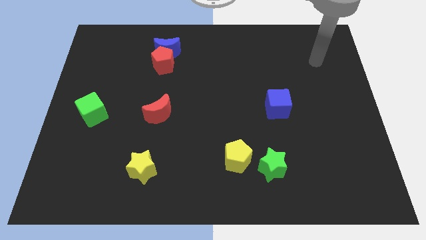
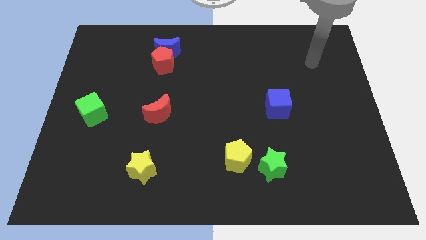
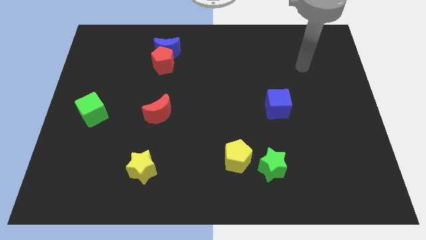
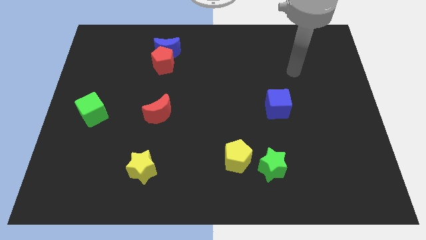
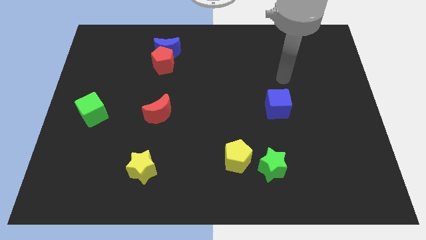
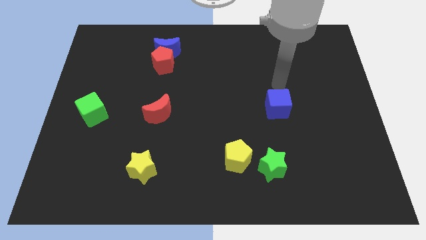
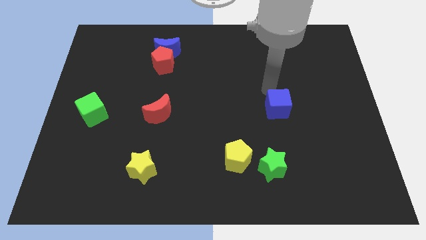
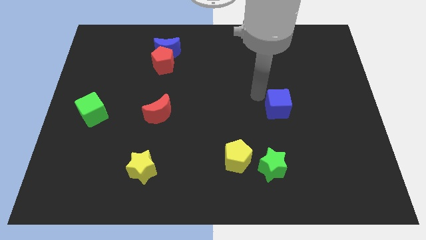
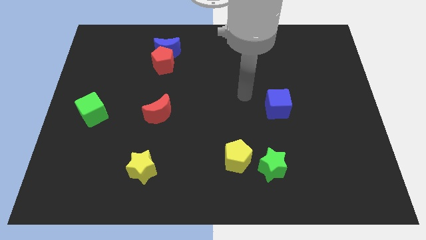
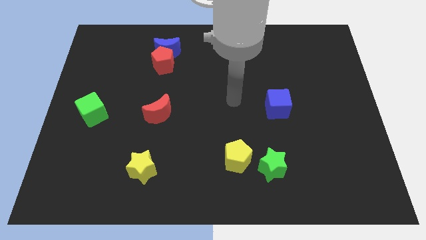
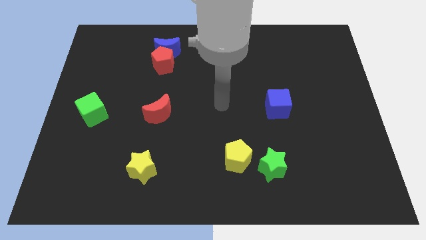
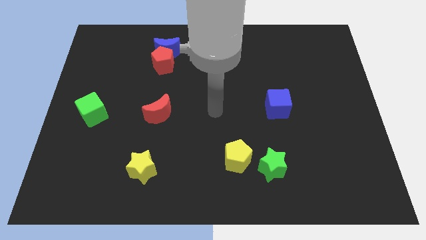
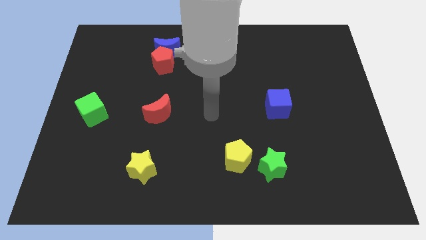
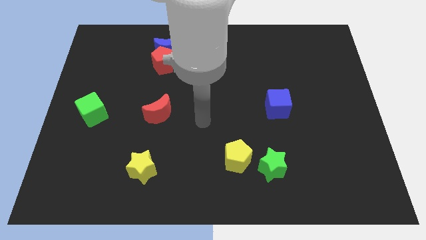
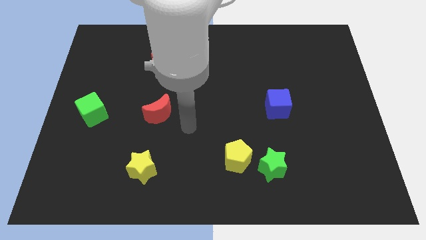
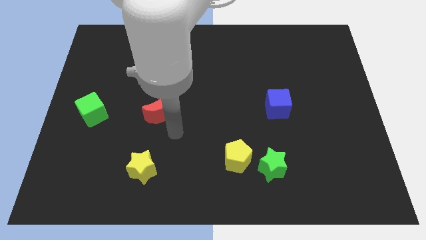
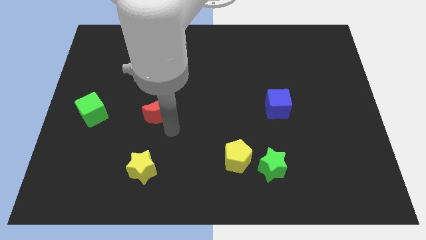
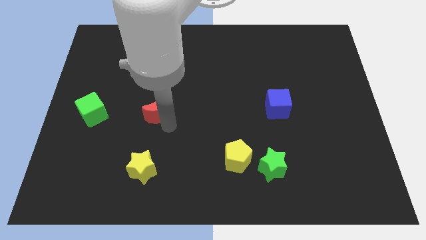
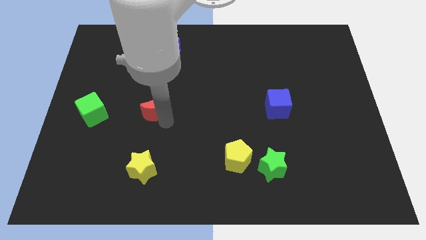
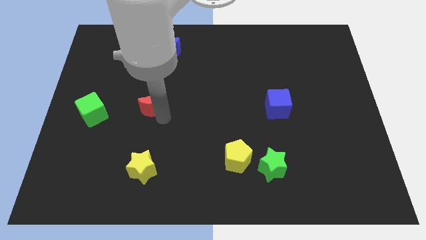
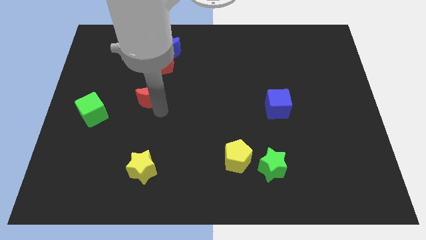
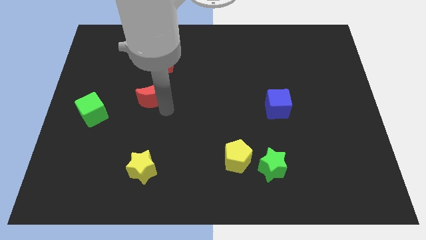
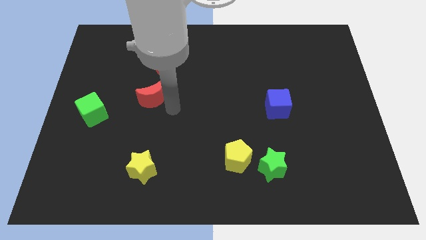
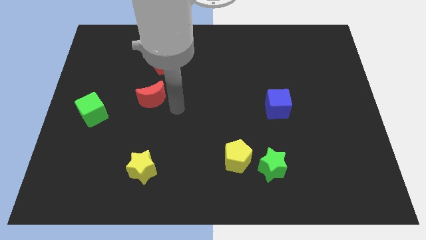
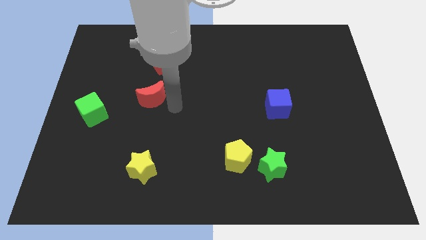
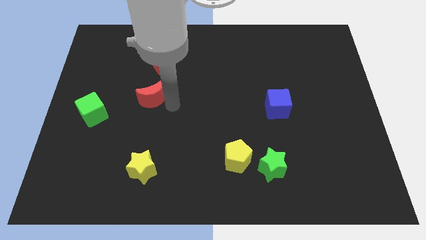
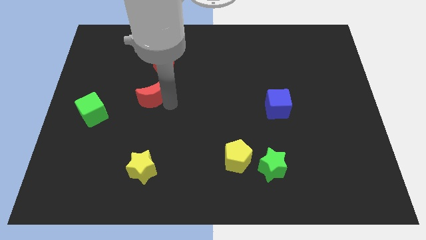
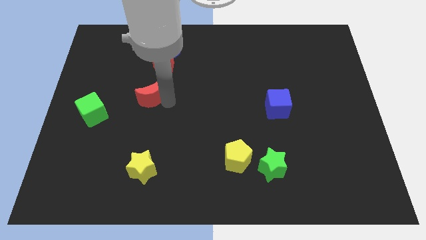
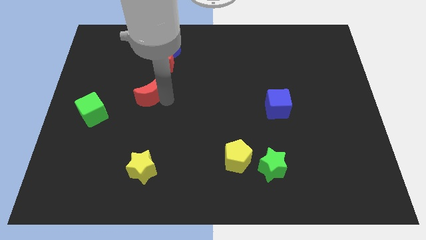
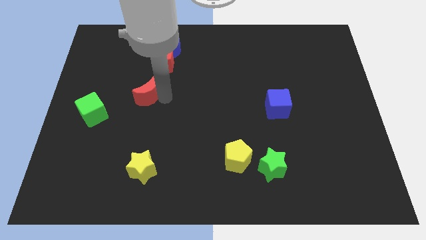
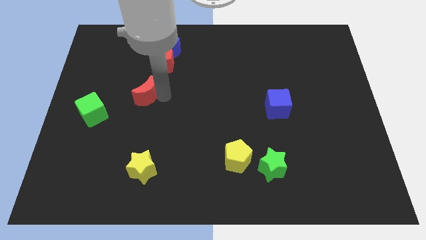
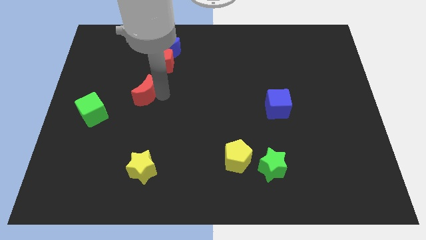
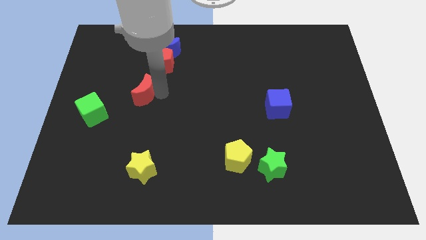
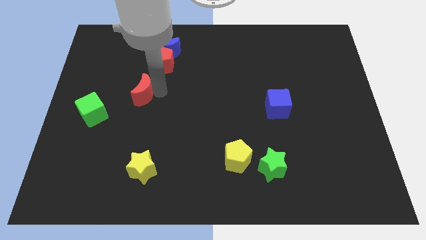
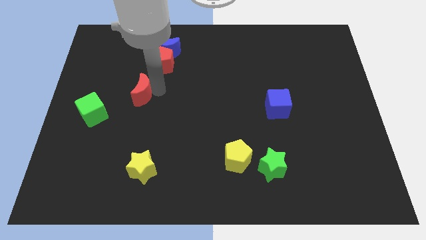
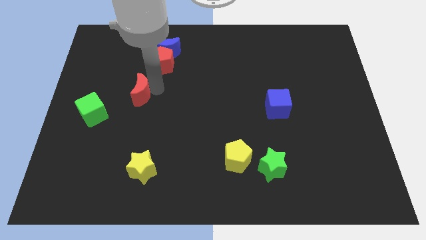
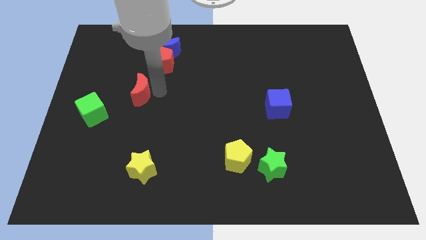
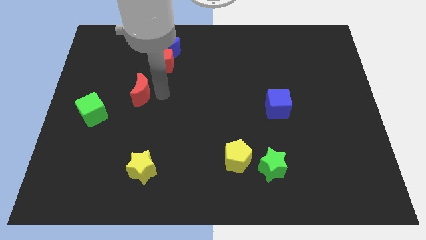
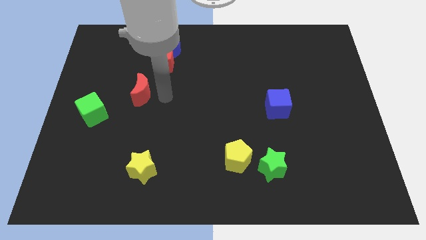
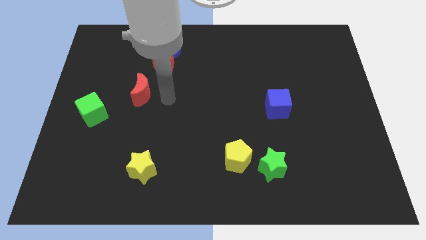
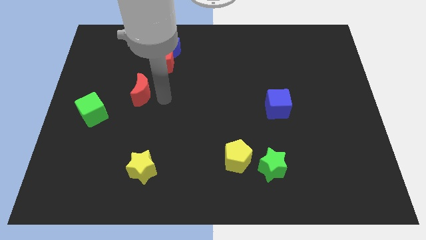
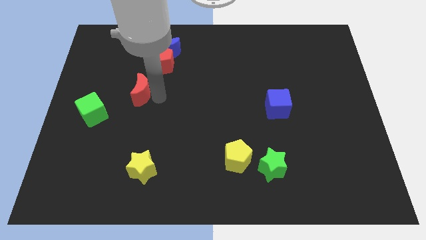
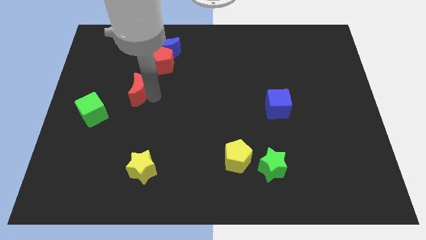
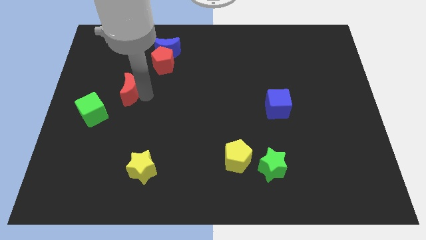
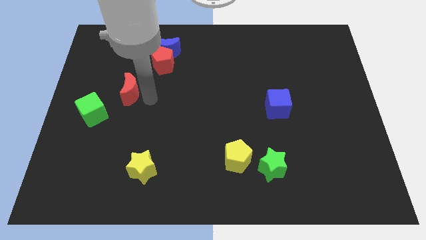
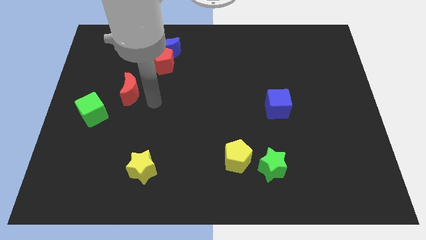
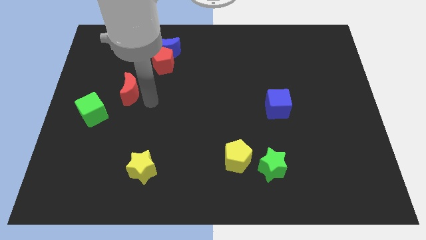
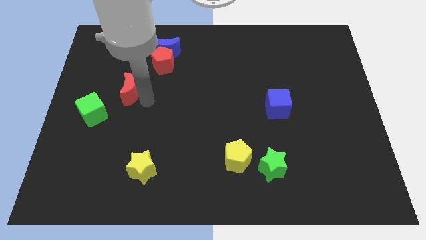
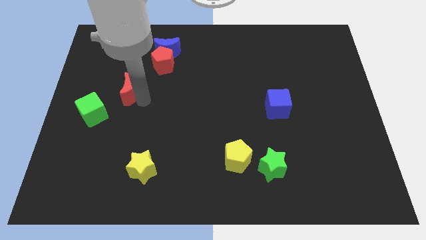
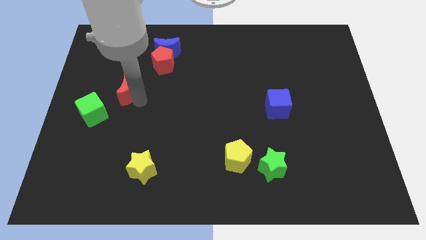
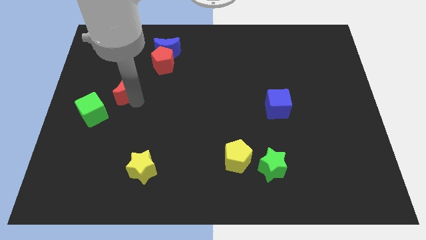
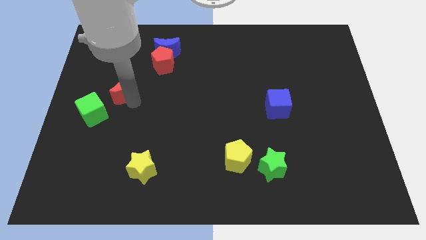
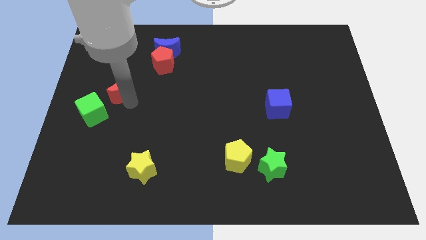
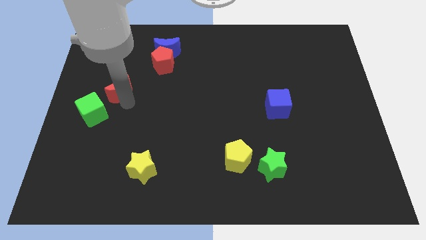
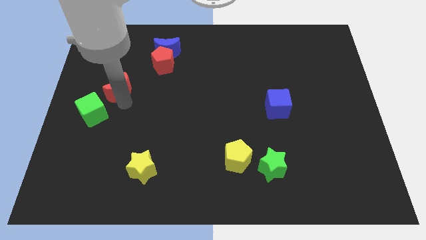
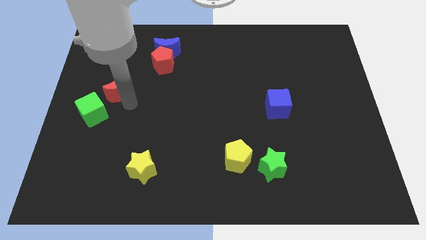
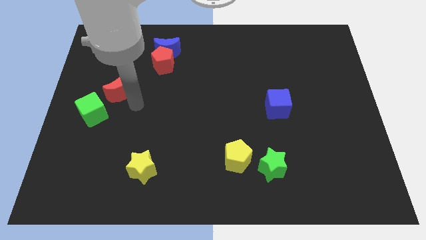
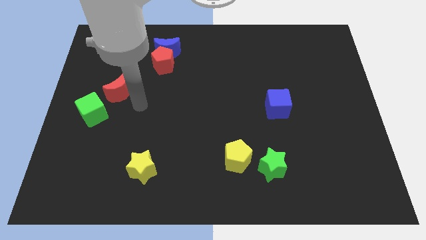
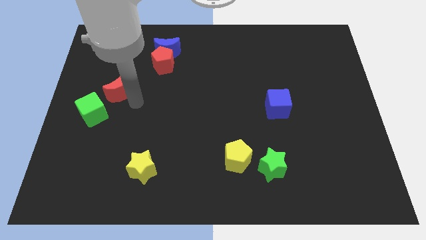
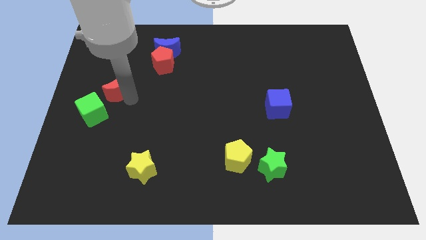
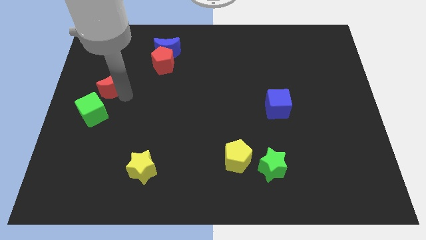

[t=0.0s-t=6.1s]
push the red moon to the top of the green cube

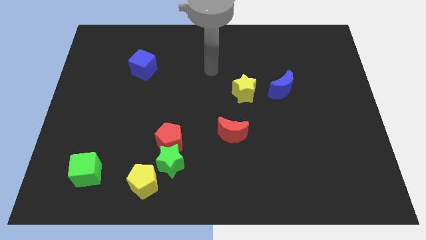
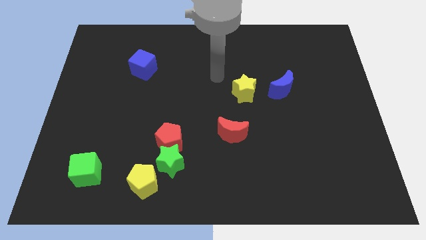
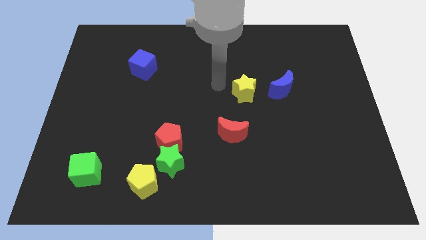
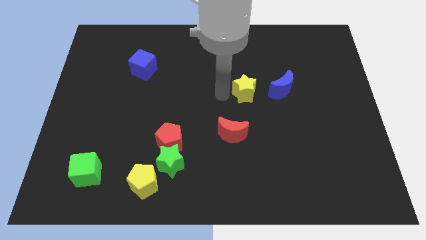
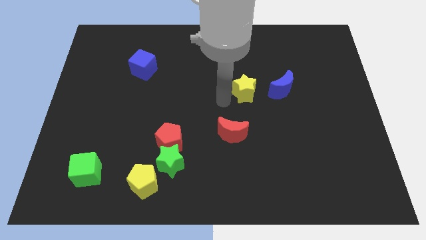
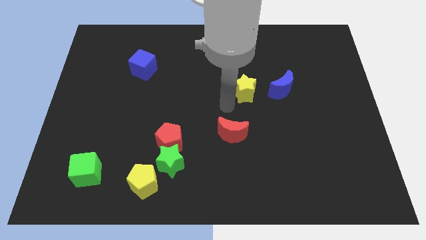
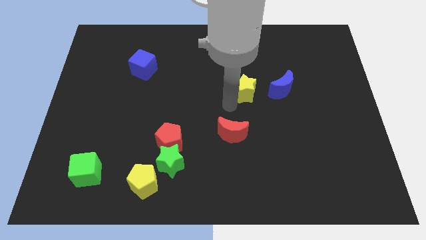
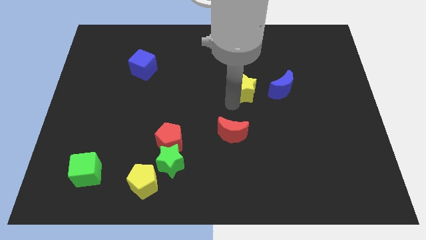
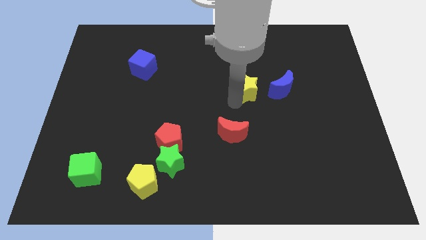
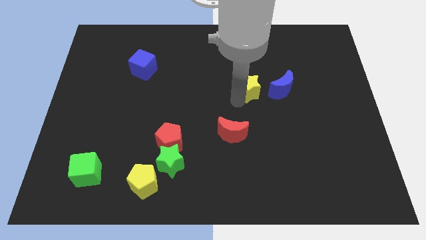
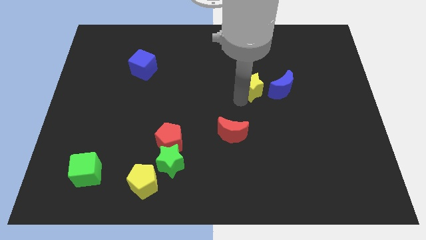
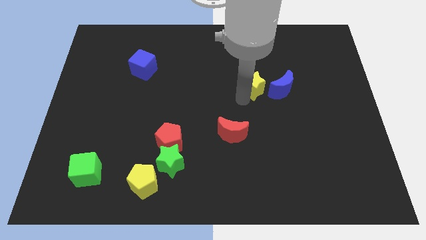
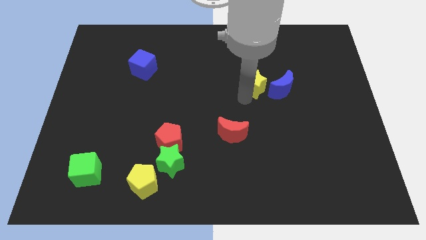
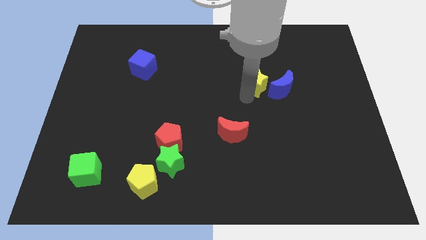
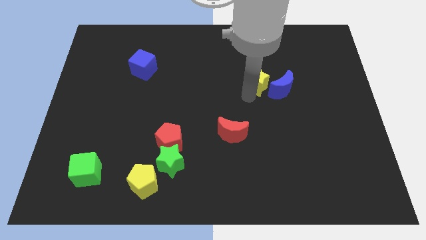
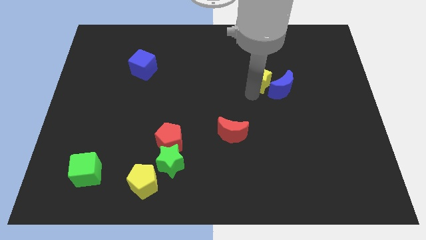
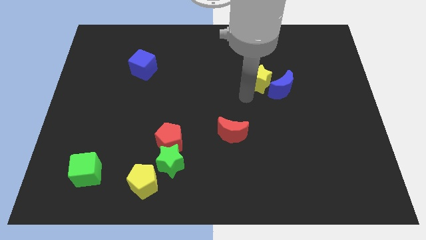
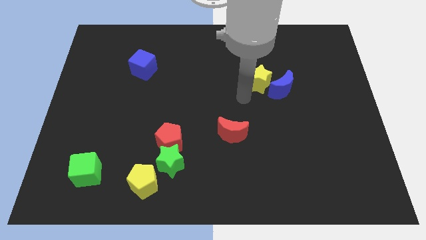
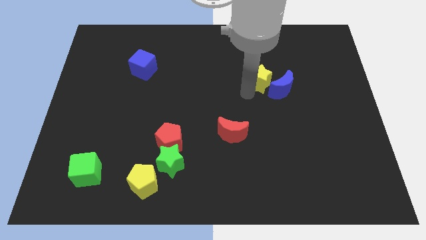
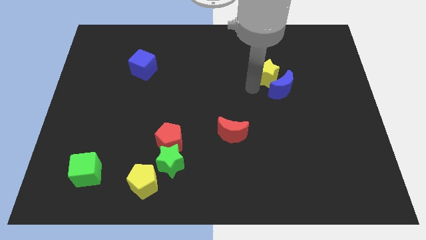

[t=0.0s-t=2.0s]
move the yellow star to the top side of the blue moon
